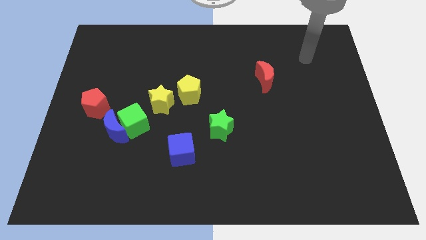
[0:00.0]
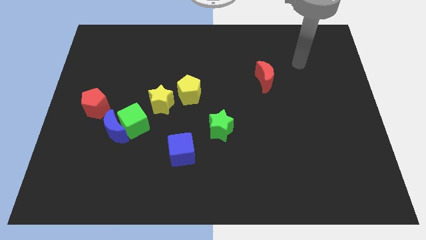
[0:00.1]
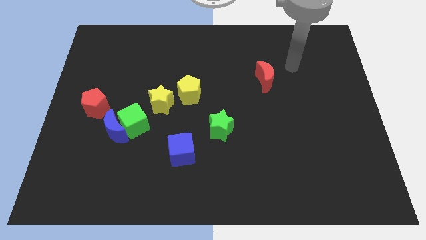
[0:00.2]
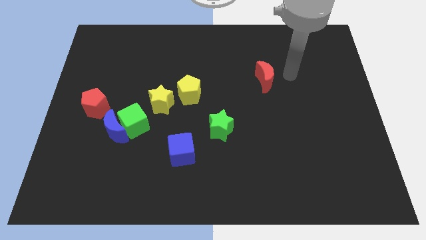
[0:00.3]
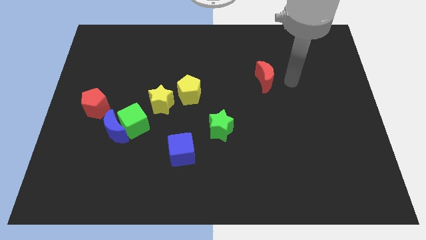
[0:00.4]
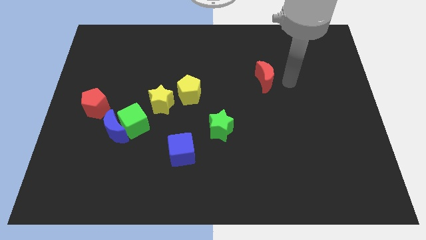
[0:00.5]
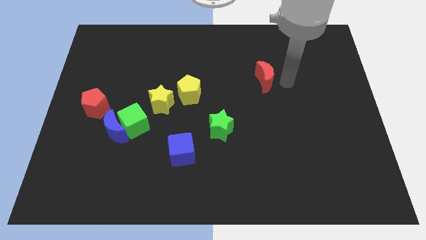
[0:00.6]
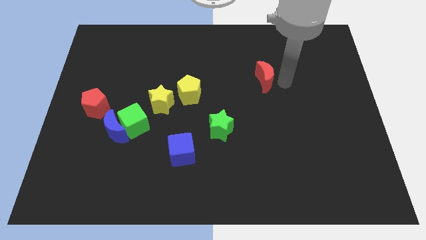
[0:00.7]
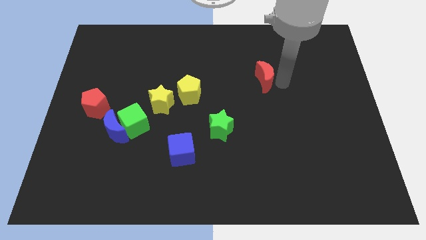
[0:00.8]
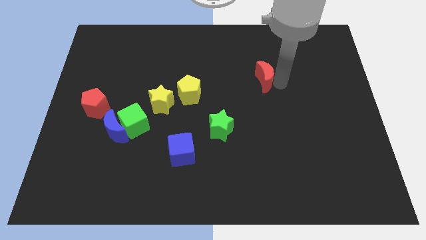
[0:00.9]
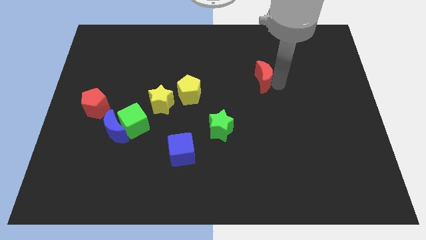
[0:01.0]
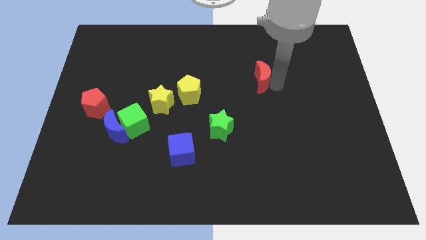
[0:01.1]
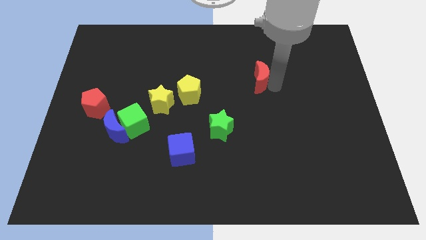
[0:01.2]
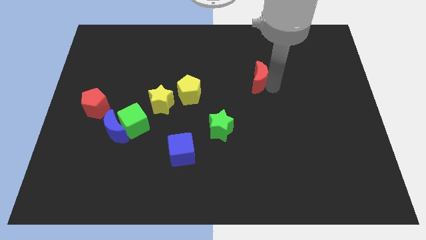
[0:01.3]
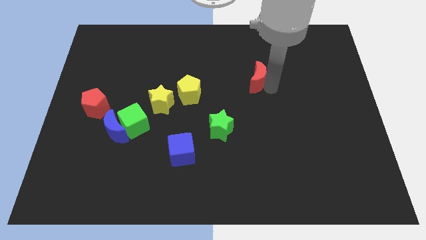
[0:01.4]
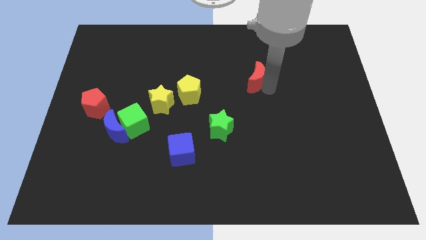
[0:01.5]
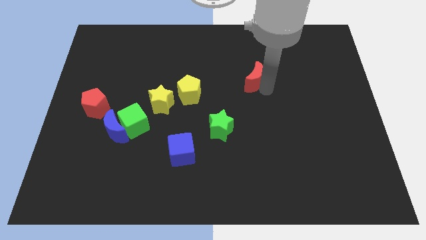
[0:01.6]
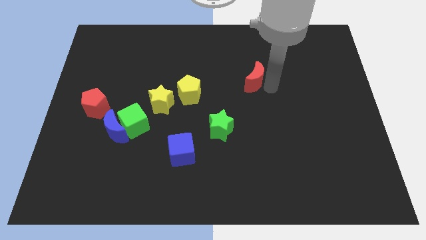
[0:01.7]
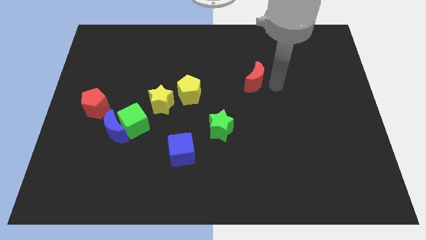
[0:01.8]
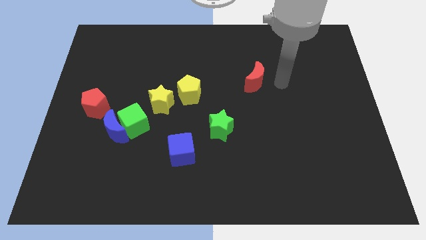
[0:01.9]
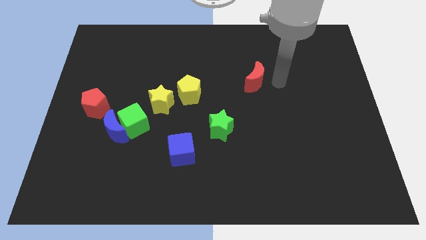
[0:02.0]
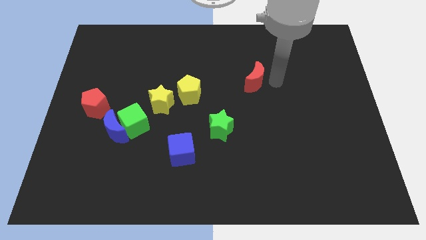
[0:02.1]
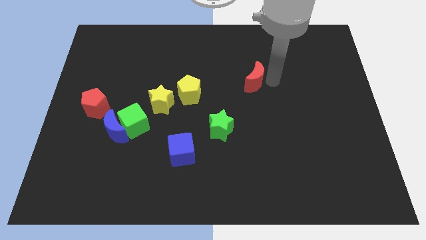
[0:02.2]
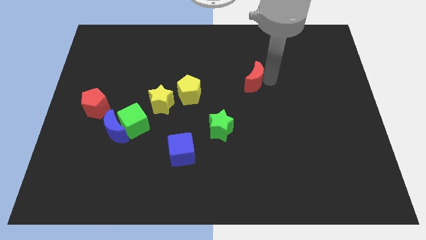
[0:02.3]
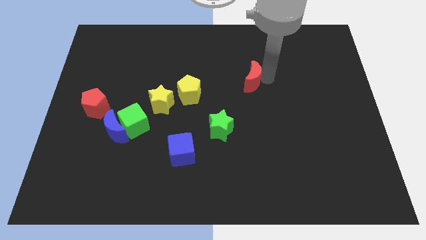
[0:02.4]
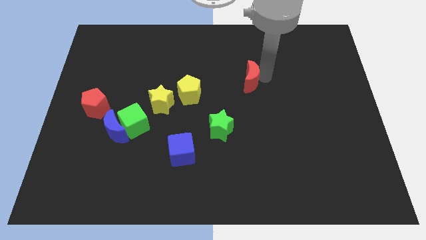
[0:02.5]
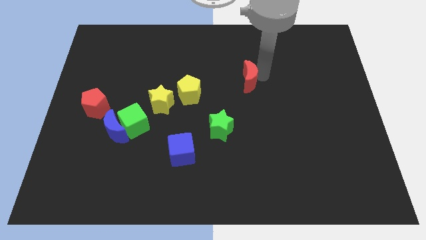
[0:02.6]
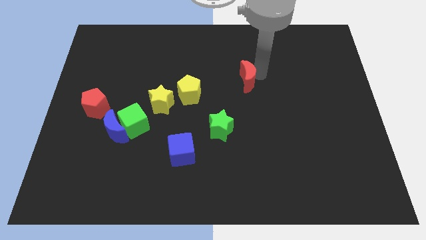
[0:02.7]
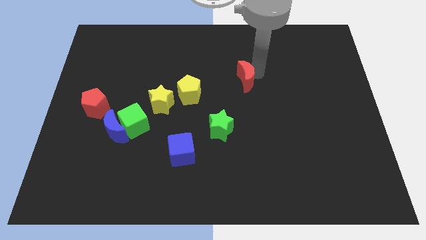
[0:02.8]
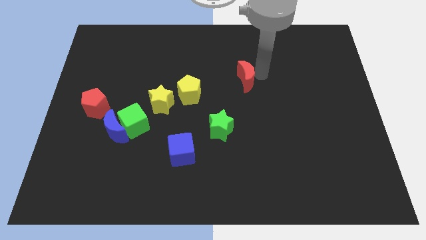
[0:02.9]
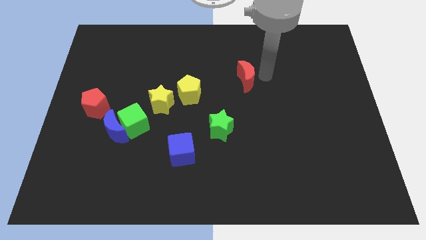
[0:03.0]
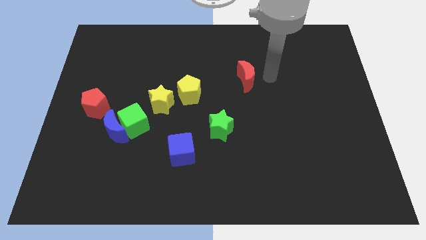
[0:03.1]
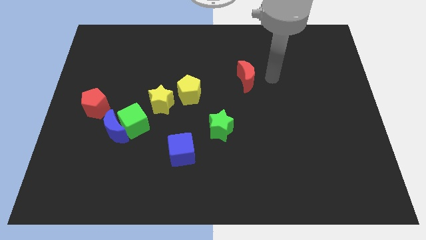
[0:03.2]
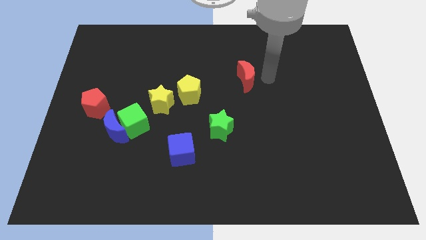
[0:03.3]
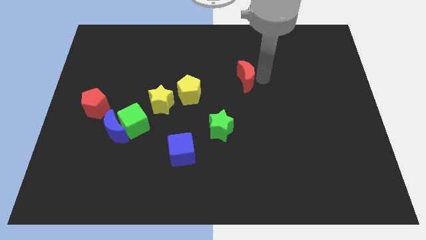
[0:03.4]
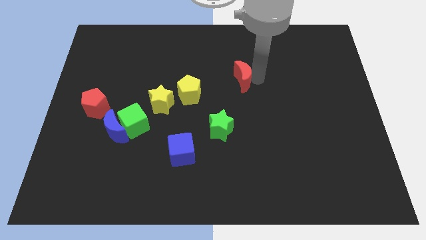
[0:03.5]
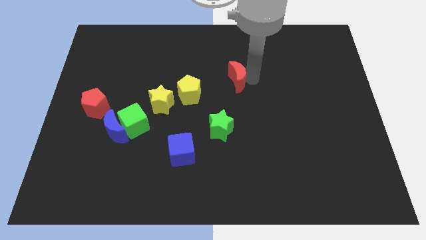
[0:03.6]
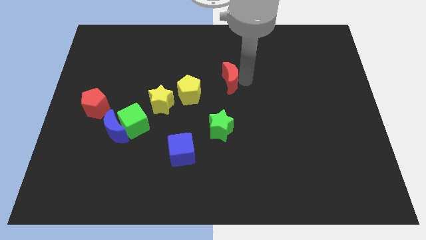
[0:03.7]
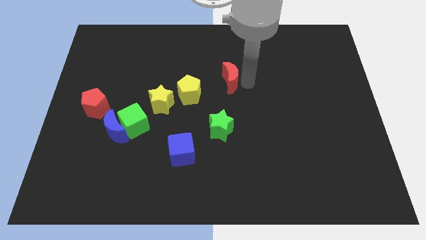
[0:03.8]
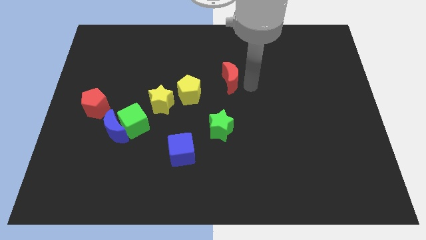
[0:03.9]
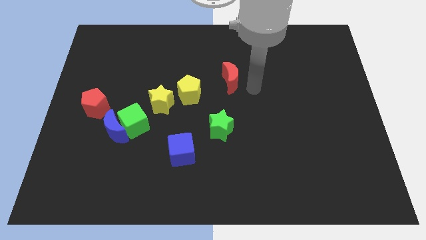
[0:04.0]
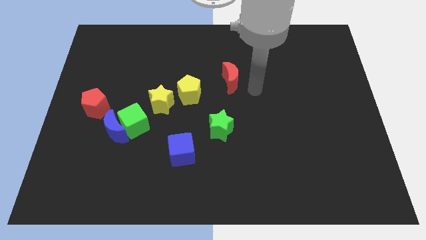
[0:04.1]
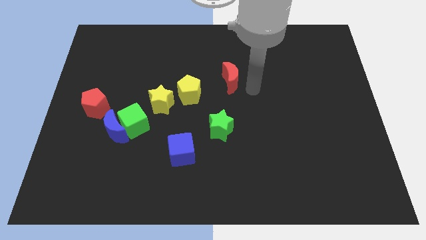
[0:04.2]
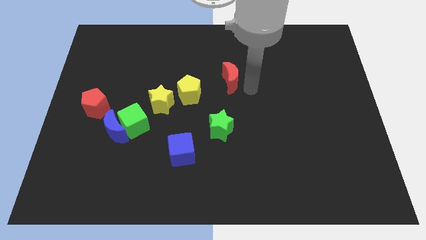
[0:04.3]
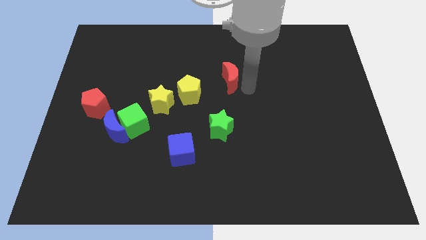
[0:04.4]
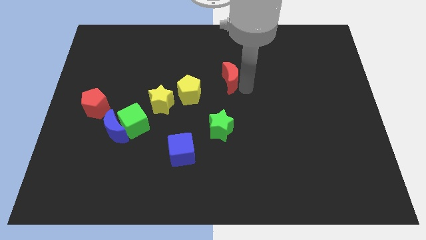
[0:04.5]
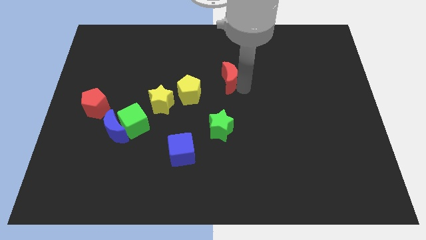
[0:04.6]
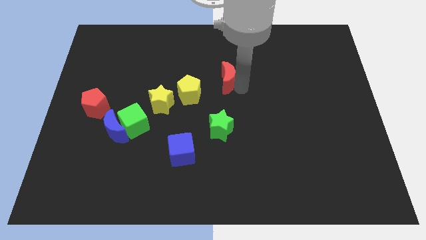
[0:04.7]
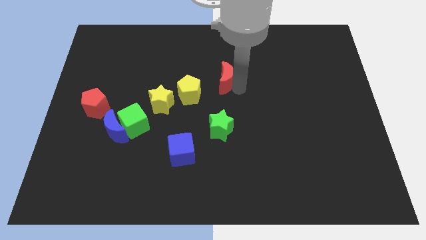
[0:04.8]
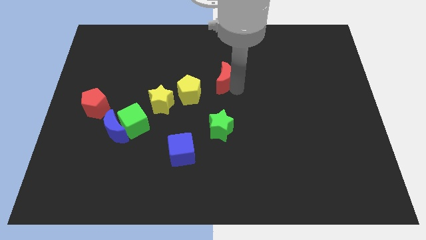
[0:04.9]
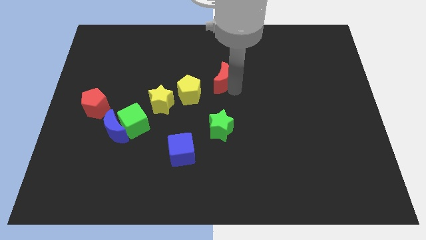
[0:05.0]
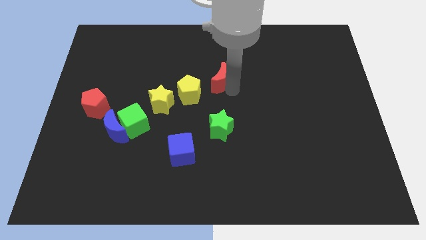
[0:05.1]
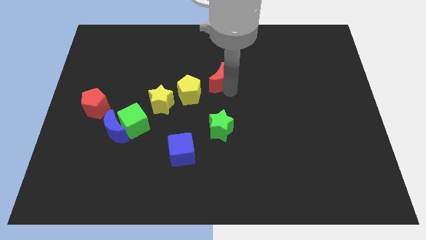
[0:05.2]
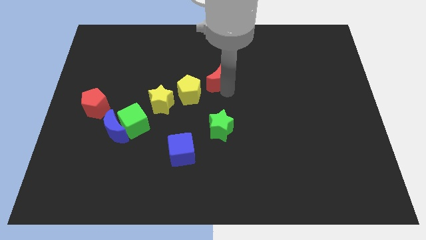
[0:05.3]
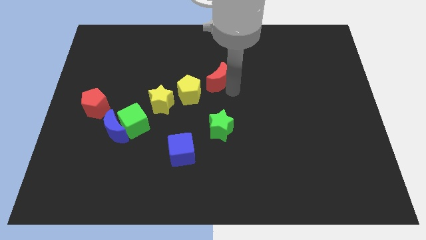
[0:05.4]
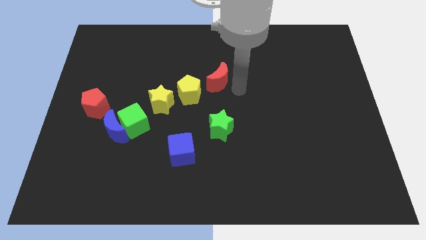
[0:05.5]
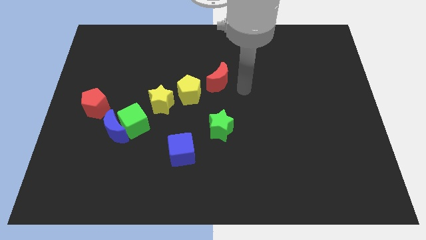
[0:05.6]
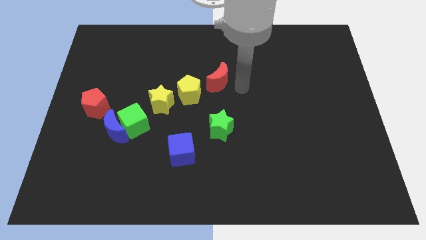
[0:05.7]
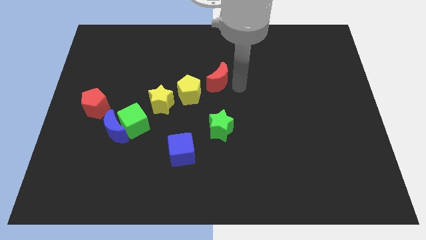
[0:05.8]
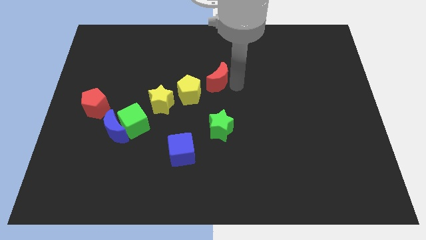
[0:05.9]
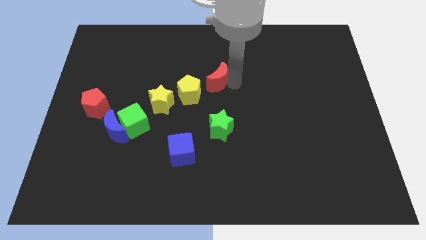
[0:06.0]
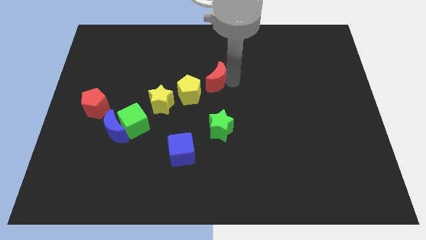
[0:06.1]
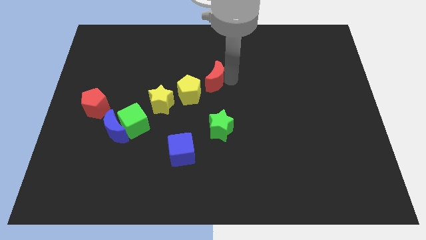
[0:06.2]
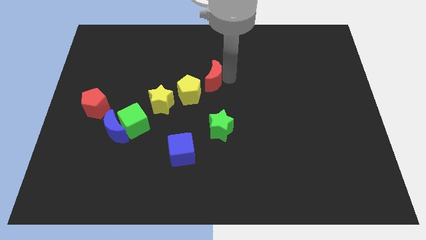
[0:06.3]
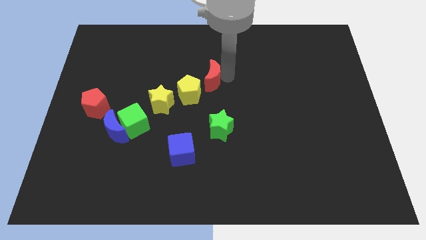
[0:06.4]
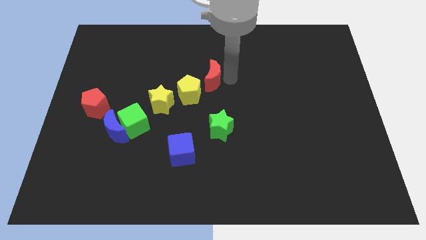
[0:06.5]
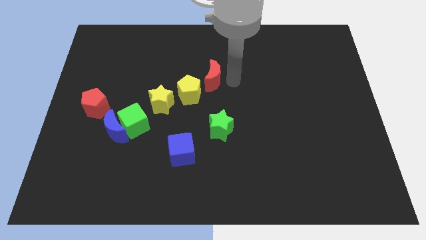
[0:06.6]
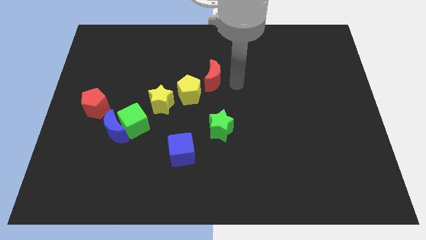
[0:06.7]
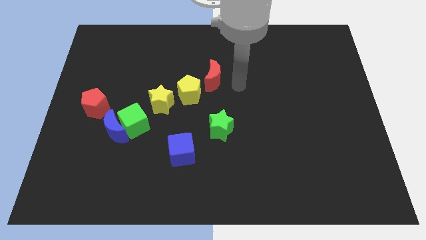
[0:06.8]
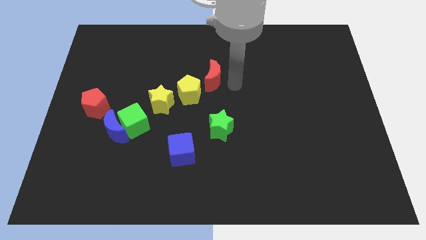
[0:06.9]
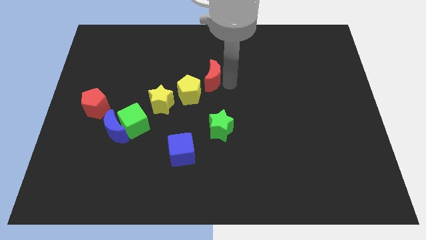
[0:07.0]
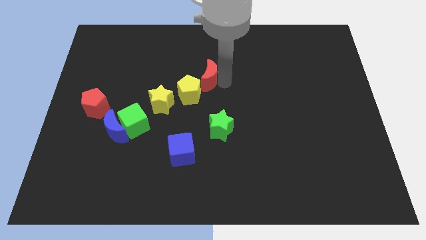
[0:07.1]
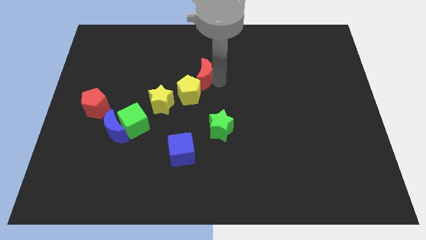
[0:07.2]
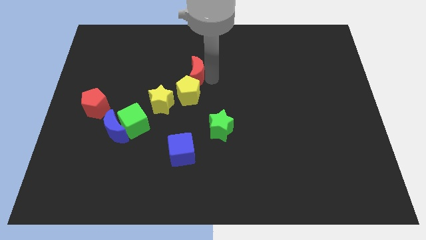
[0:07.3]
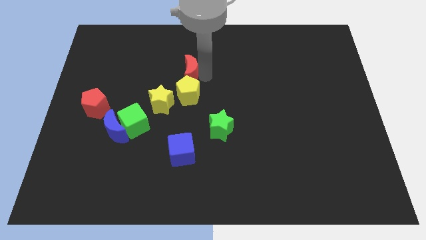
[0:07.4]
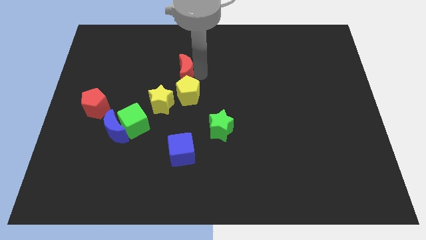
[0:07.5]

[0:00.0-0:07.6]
push the red moon to the left

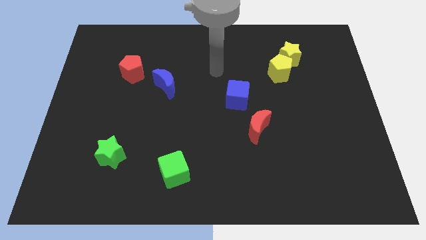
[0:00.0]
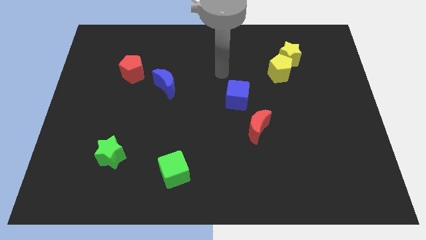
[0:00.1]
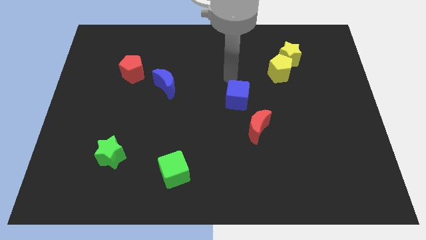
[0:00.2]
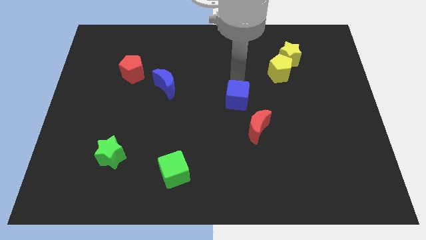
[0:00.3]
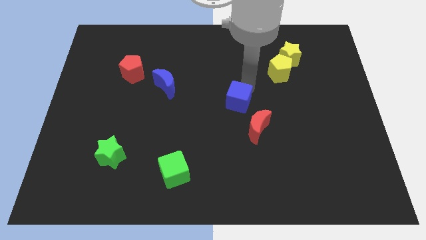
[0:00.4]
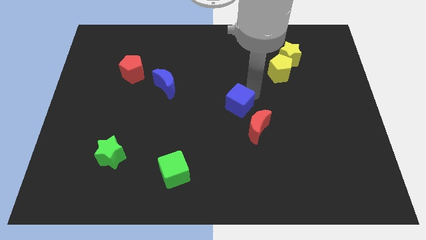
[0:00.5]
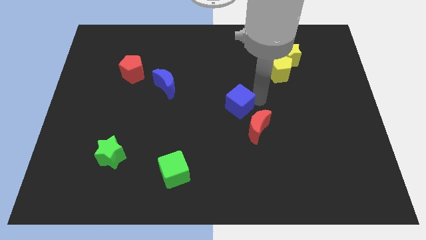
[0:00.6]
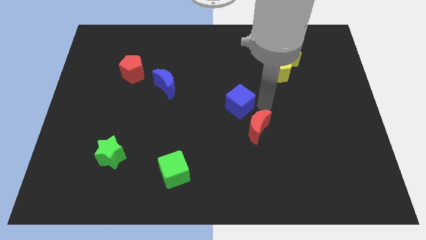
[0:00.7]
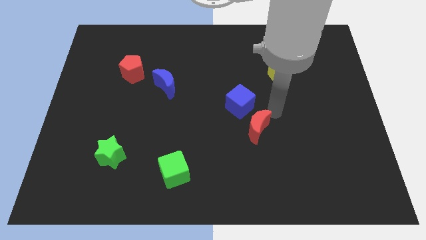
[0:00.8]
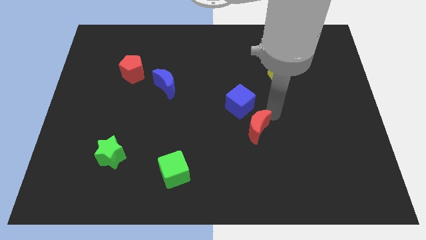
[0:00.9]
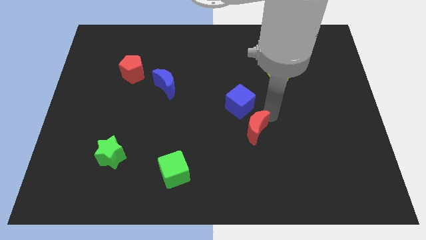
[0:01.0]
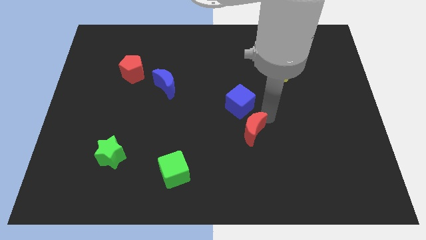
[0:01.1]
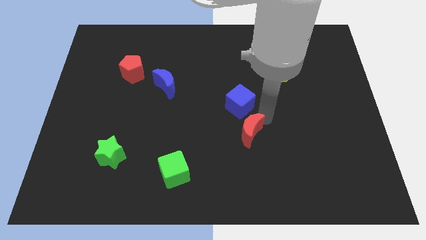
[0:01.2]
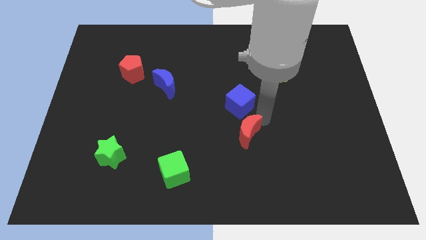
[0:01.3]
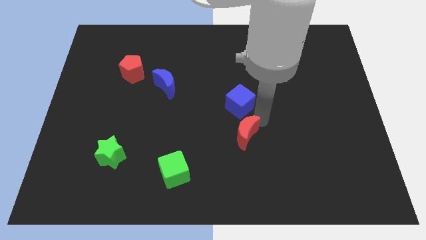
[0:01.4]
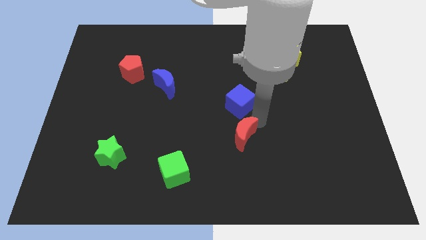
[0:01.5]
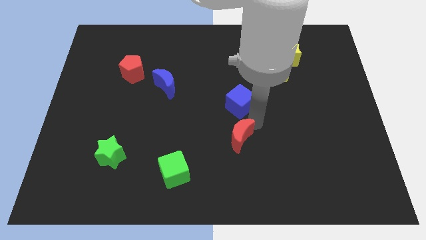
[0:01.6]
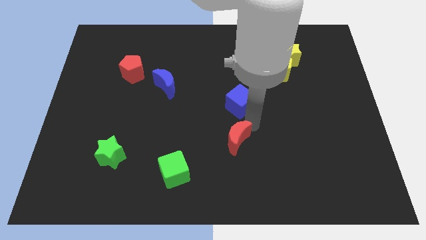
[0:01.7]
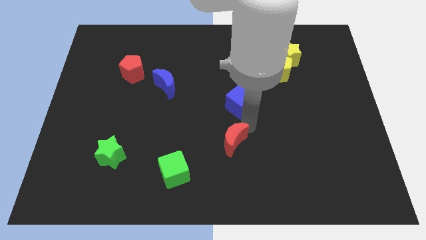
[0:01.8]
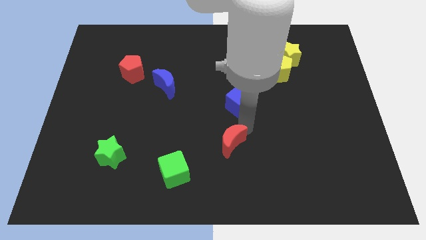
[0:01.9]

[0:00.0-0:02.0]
push the red moon somewhat downwards and then to the left
